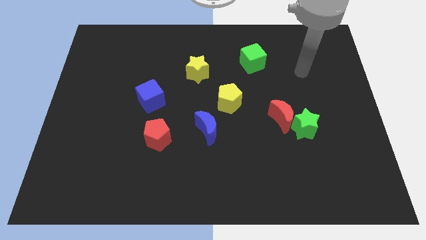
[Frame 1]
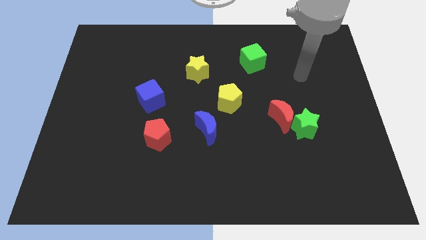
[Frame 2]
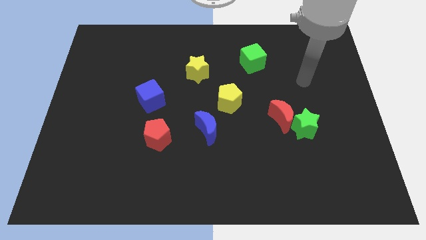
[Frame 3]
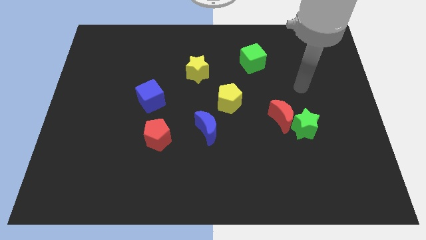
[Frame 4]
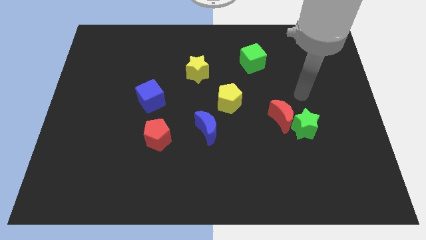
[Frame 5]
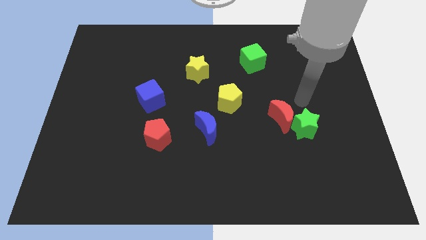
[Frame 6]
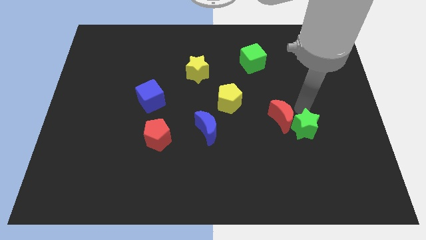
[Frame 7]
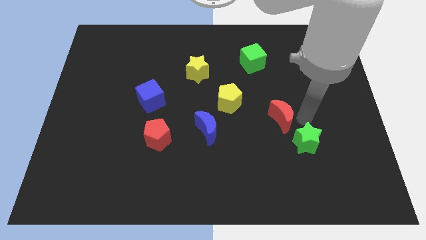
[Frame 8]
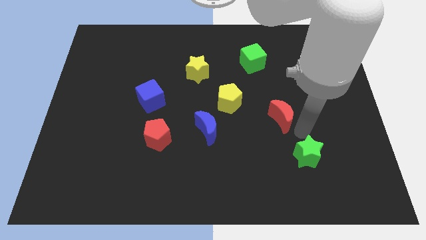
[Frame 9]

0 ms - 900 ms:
separate the red moon from the green star

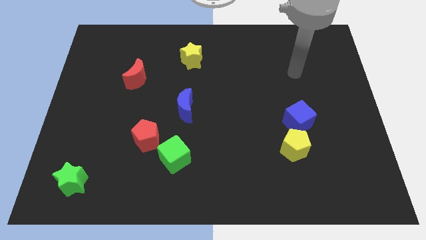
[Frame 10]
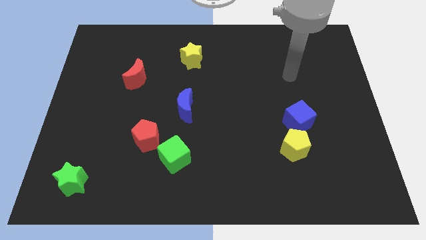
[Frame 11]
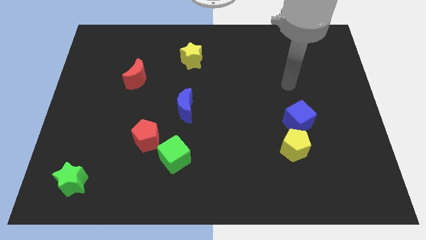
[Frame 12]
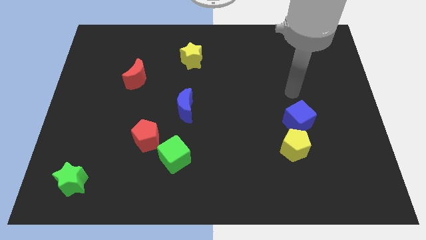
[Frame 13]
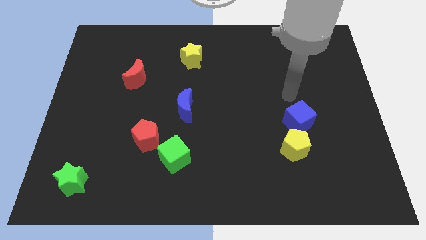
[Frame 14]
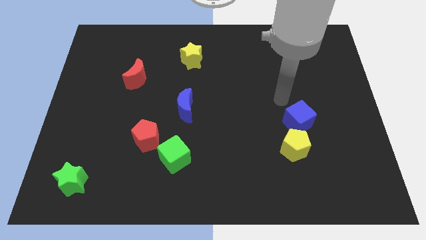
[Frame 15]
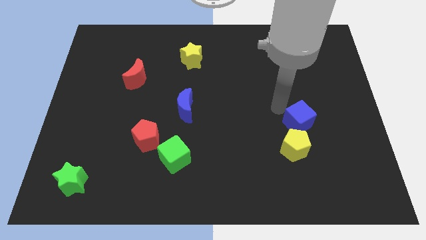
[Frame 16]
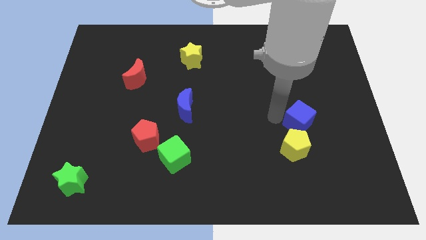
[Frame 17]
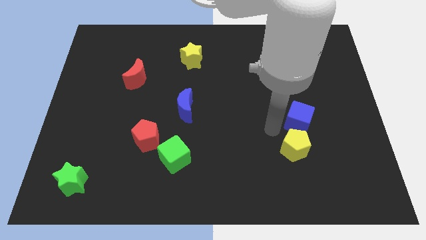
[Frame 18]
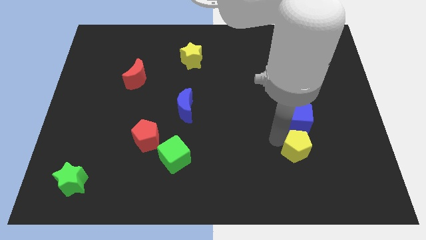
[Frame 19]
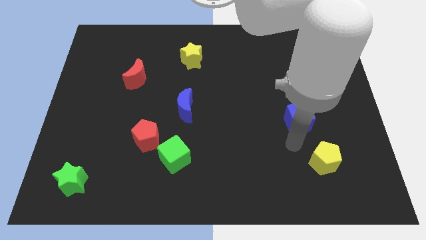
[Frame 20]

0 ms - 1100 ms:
pull the blue cube apart from the yellow pentagon

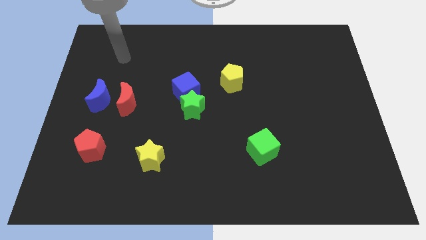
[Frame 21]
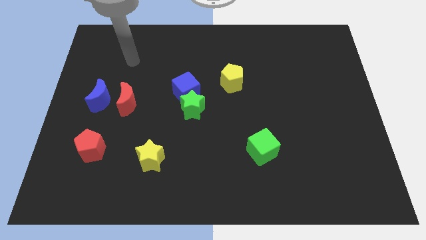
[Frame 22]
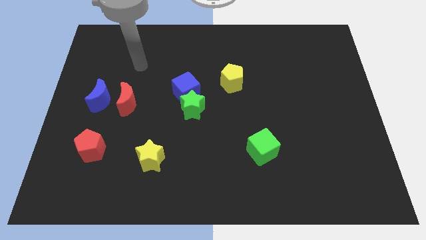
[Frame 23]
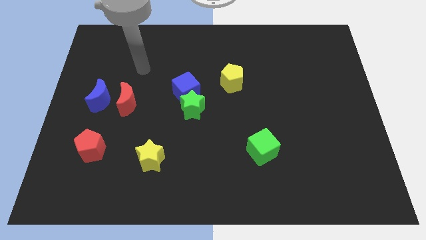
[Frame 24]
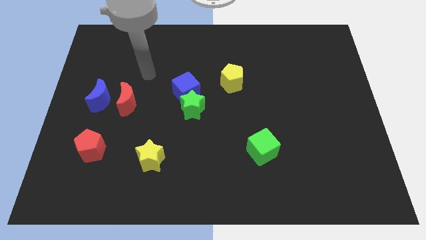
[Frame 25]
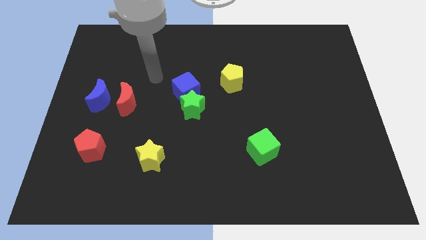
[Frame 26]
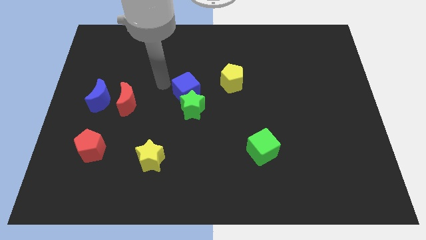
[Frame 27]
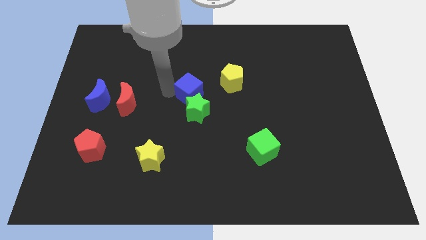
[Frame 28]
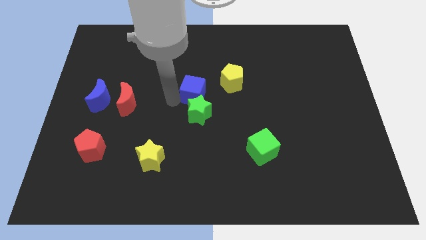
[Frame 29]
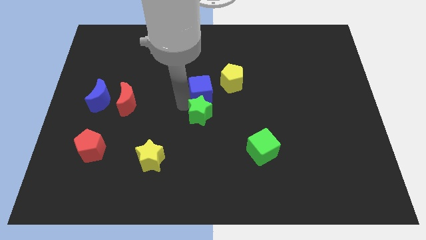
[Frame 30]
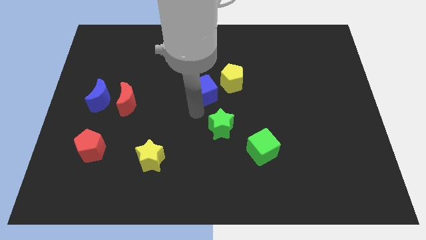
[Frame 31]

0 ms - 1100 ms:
pull the blue cube apart from the green star

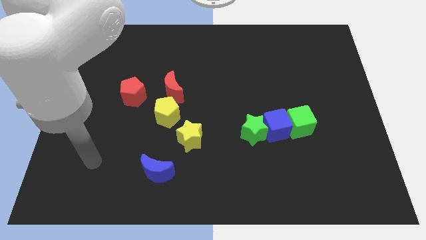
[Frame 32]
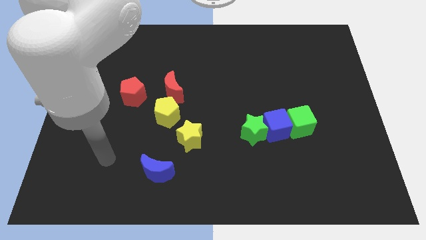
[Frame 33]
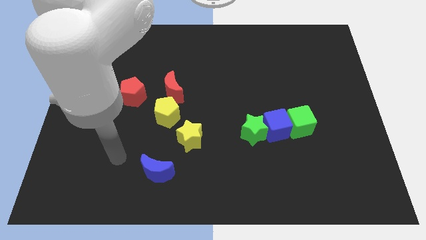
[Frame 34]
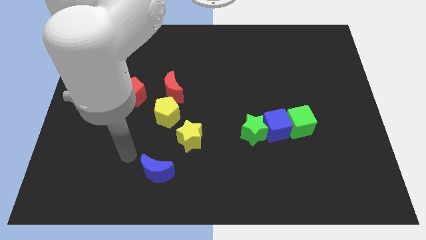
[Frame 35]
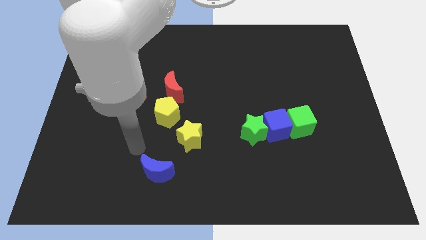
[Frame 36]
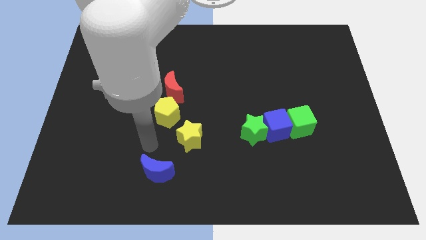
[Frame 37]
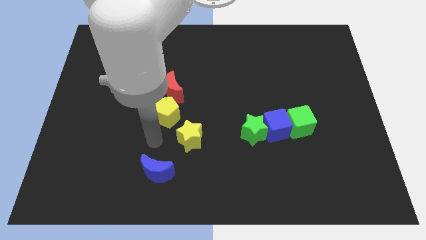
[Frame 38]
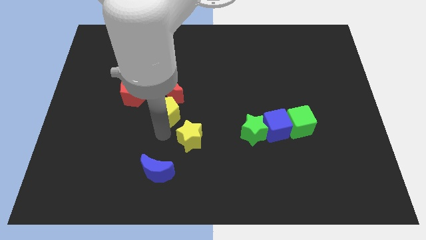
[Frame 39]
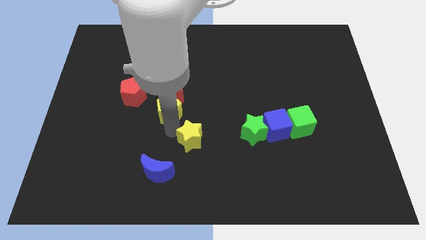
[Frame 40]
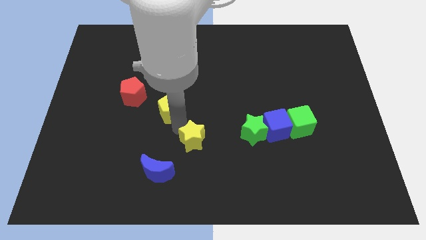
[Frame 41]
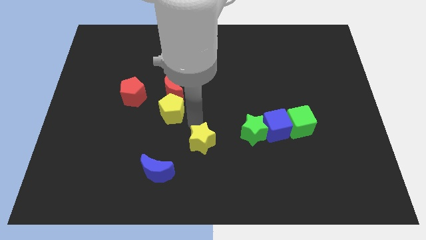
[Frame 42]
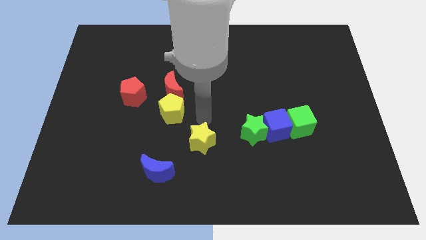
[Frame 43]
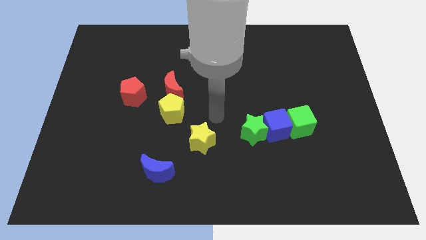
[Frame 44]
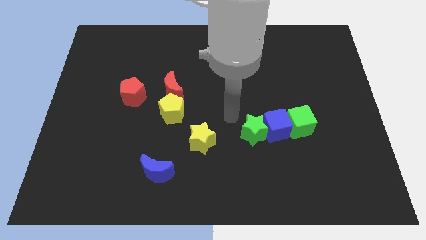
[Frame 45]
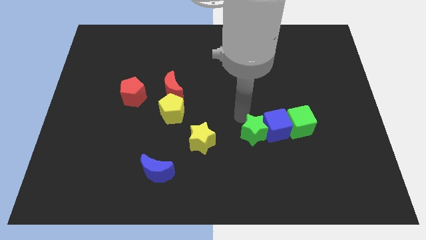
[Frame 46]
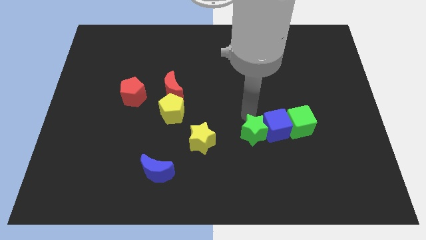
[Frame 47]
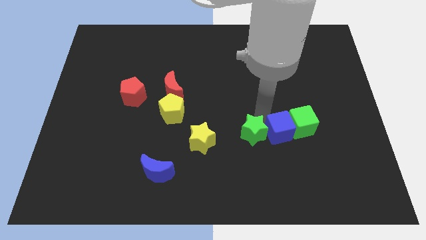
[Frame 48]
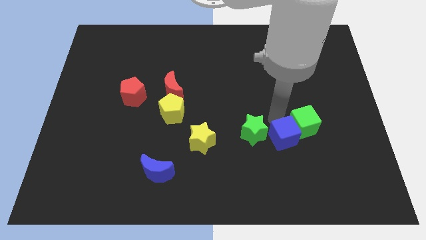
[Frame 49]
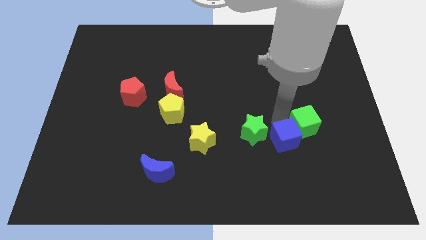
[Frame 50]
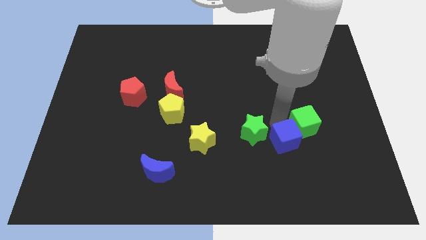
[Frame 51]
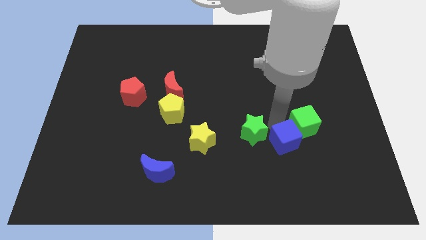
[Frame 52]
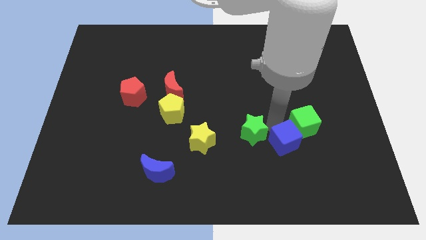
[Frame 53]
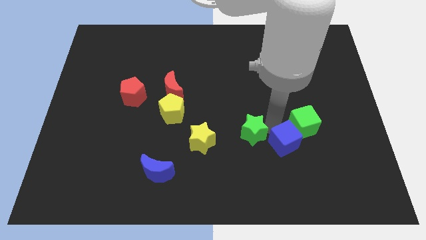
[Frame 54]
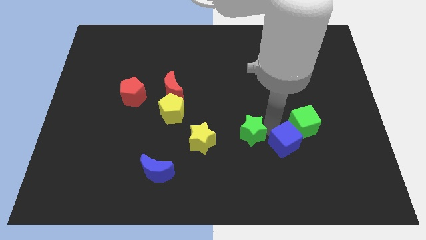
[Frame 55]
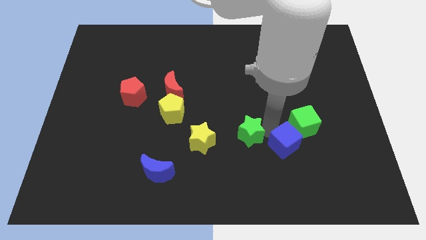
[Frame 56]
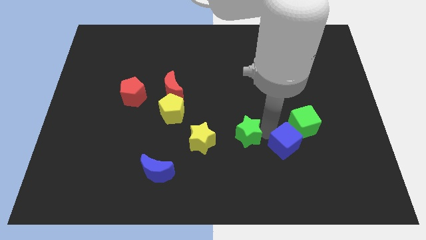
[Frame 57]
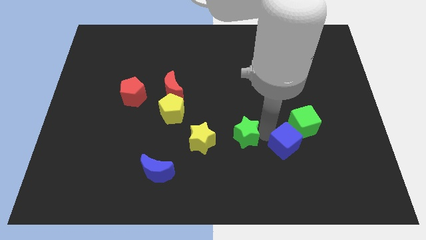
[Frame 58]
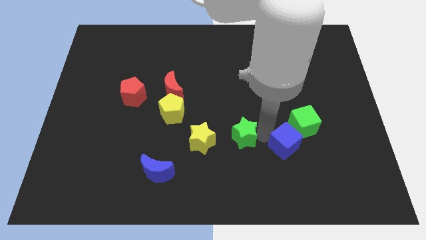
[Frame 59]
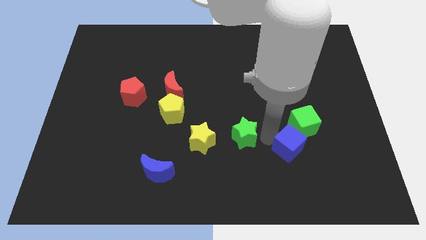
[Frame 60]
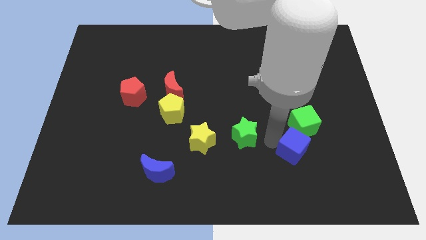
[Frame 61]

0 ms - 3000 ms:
pull the green star apart from the blue cube

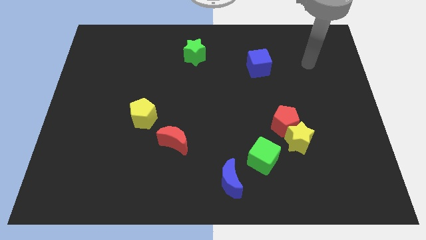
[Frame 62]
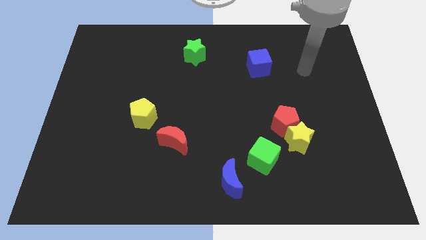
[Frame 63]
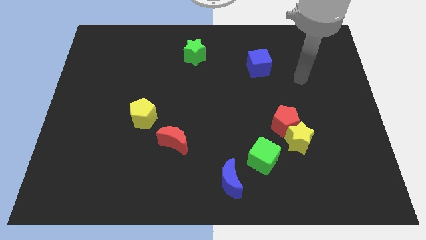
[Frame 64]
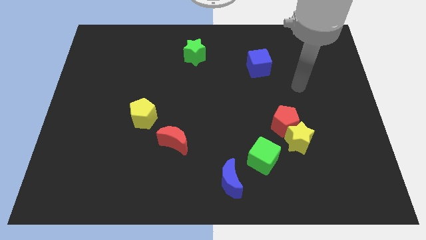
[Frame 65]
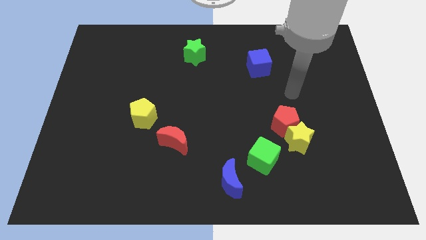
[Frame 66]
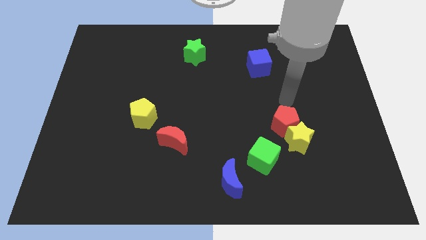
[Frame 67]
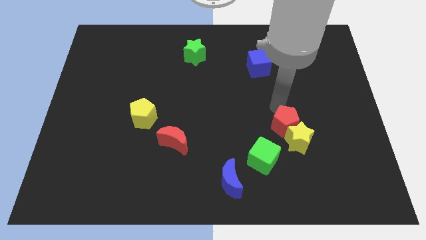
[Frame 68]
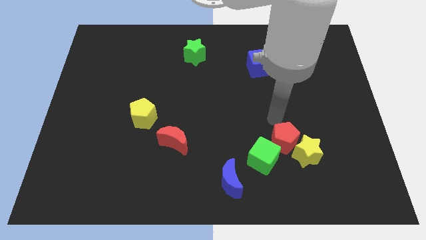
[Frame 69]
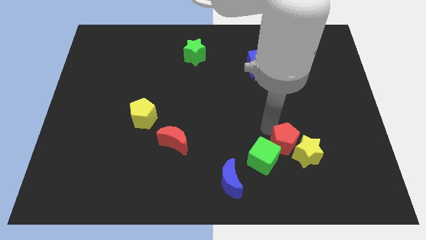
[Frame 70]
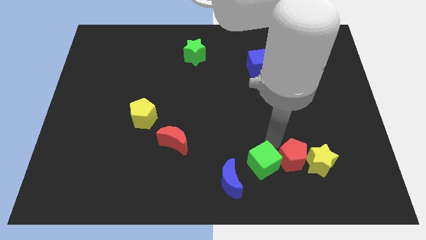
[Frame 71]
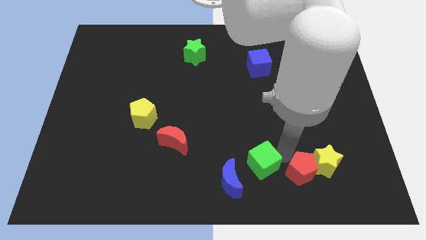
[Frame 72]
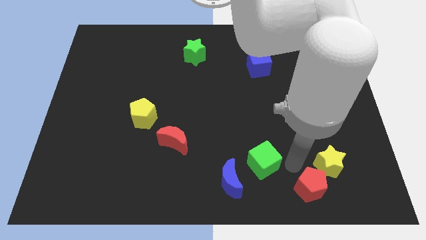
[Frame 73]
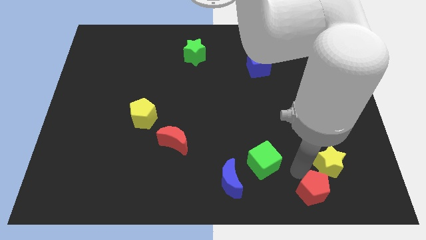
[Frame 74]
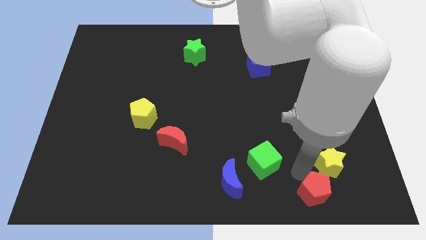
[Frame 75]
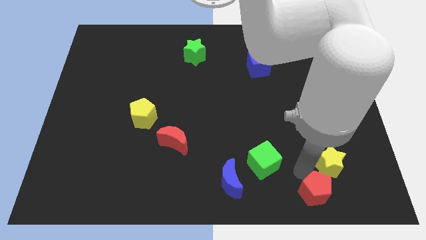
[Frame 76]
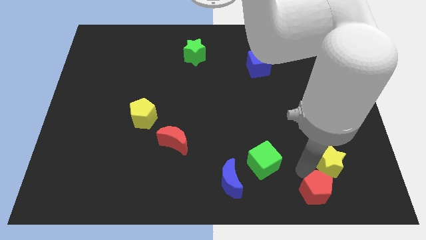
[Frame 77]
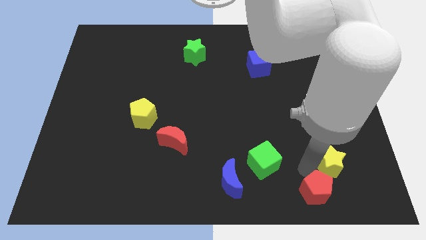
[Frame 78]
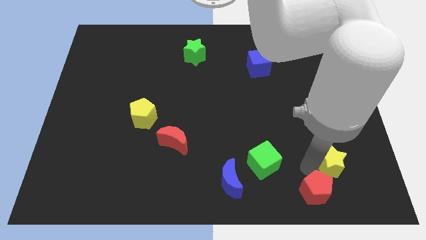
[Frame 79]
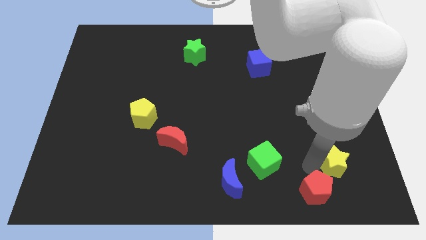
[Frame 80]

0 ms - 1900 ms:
separate the yellow star from the red pentagon and green cube

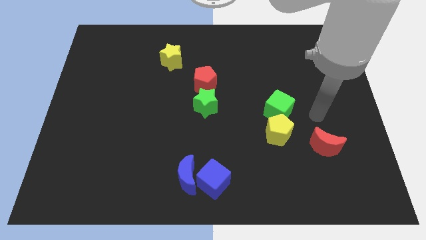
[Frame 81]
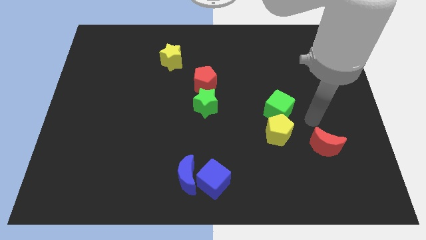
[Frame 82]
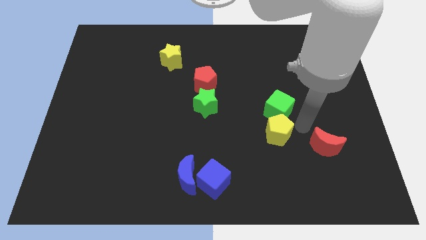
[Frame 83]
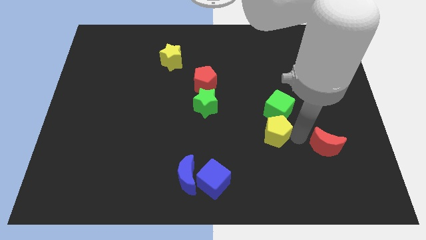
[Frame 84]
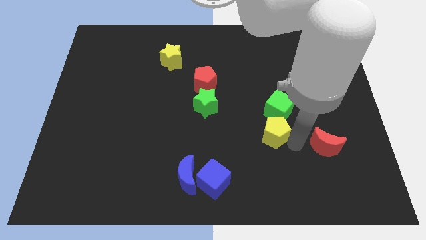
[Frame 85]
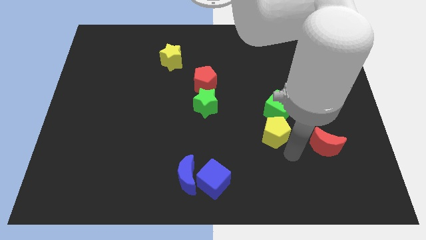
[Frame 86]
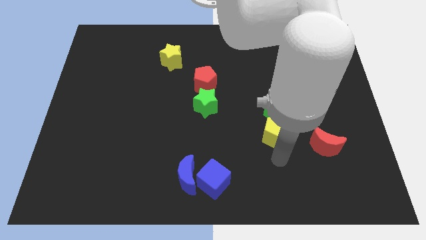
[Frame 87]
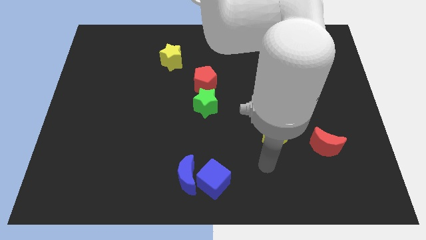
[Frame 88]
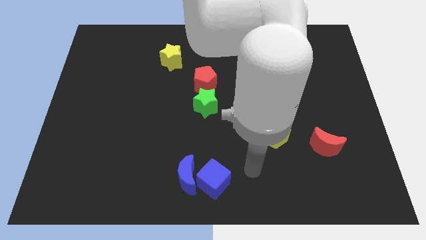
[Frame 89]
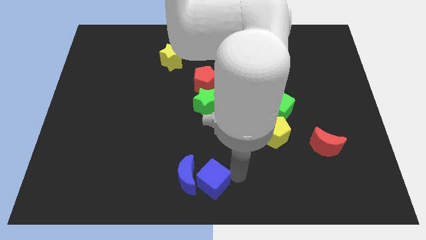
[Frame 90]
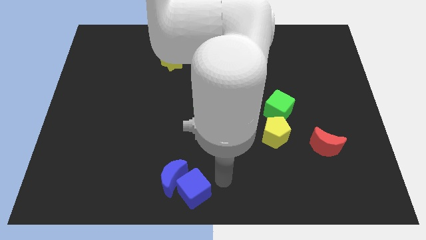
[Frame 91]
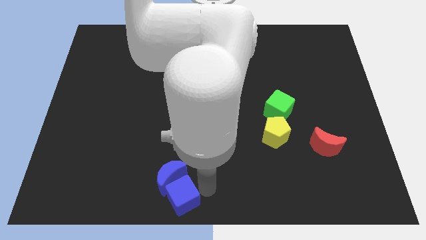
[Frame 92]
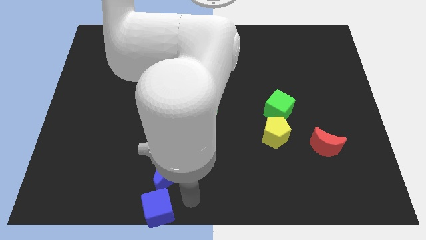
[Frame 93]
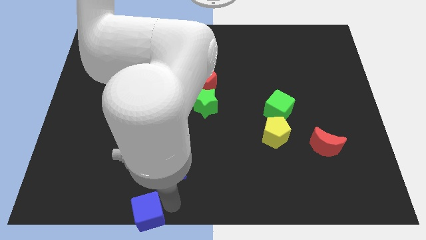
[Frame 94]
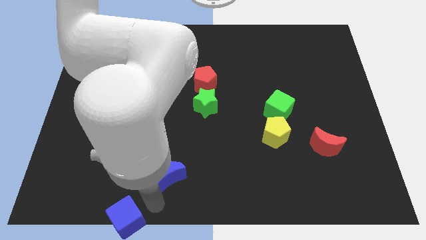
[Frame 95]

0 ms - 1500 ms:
move the blue moon away from the blue cube
